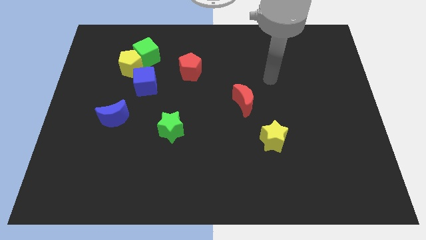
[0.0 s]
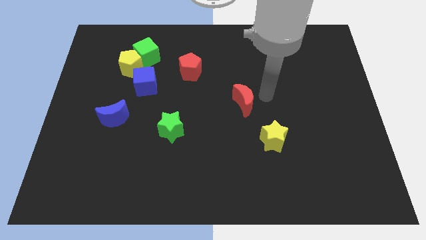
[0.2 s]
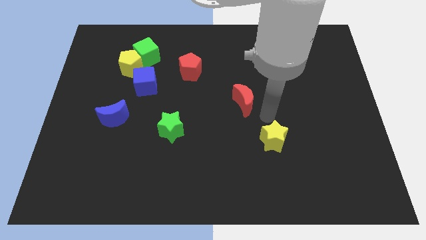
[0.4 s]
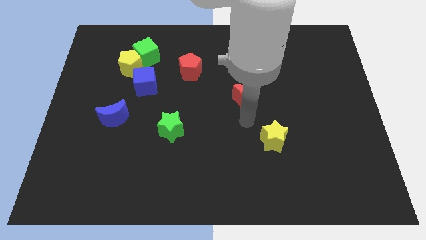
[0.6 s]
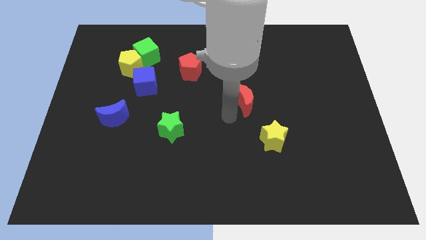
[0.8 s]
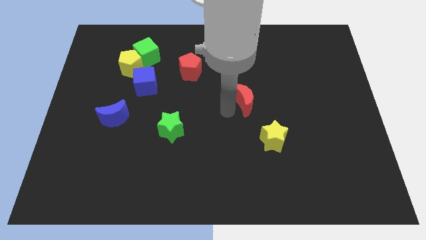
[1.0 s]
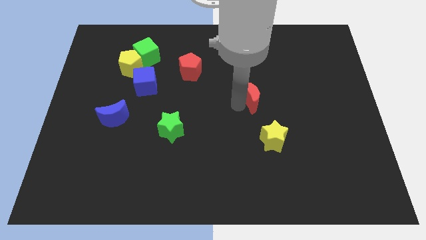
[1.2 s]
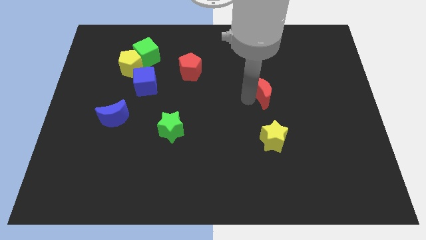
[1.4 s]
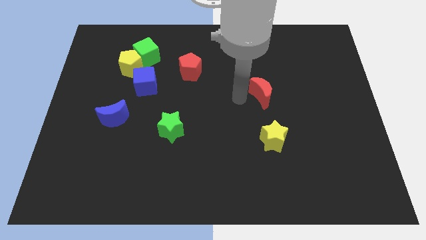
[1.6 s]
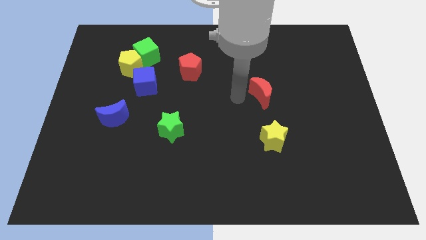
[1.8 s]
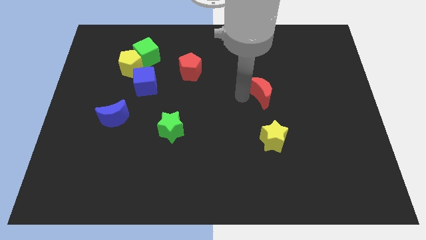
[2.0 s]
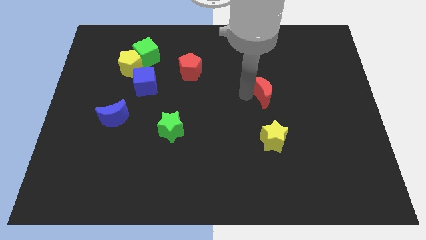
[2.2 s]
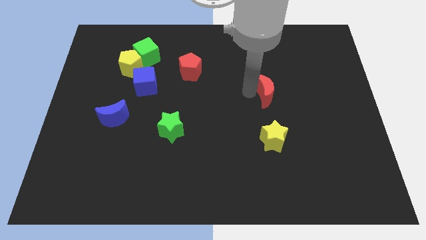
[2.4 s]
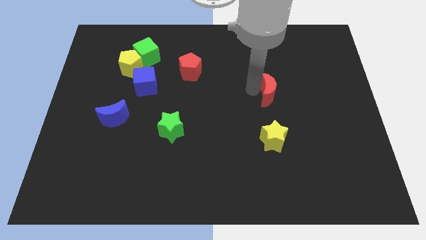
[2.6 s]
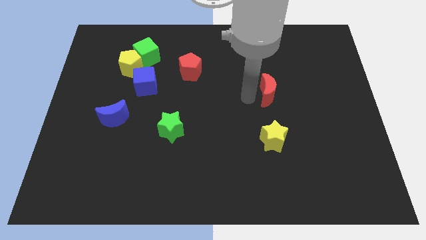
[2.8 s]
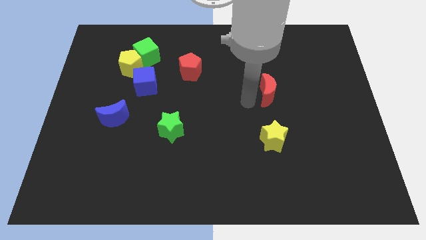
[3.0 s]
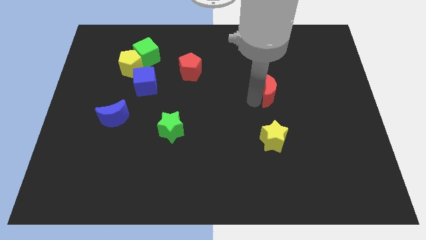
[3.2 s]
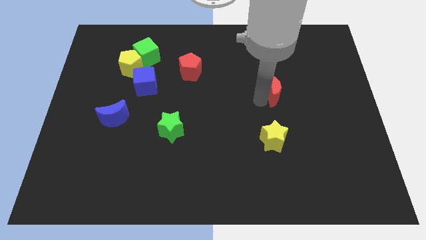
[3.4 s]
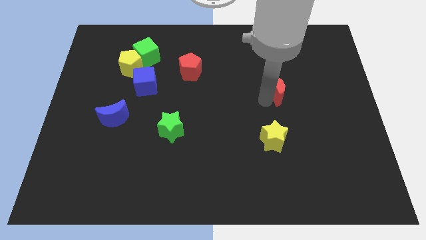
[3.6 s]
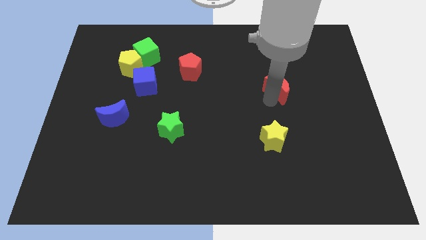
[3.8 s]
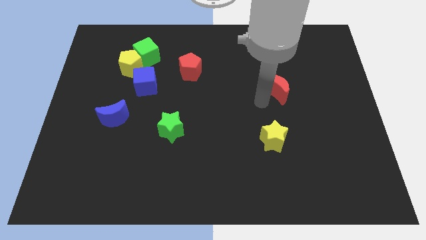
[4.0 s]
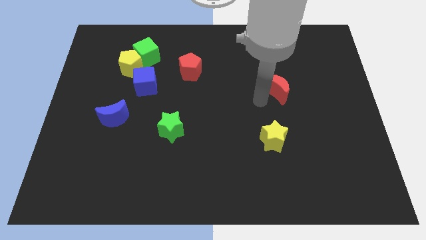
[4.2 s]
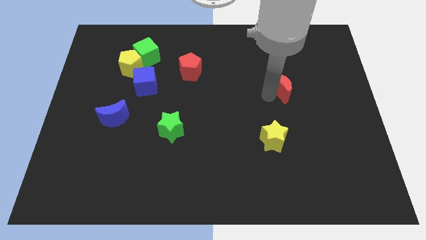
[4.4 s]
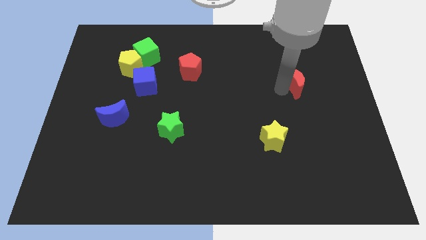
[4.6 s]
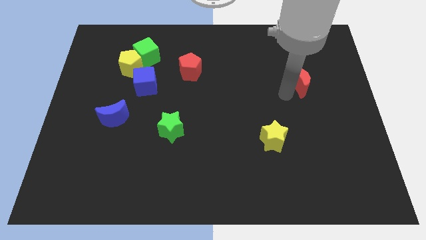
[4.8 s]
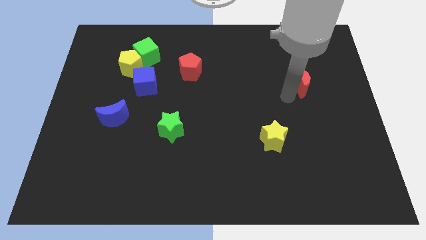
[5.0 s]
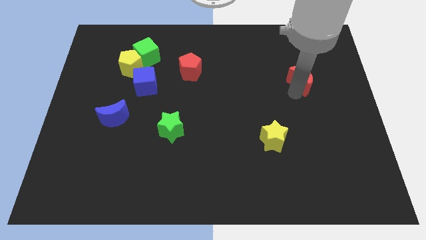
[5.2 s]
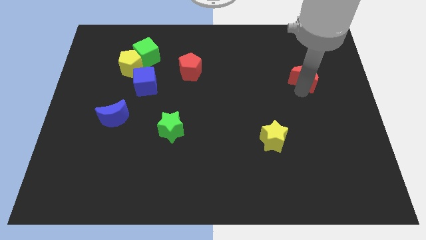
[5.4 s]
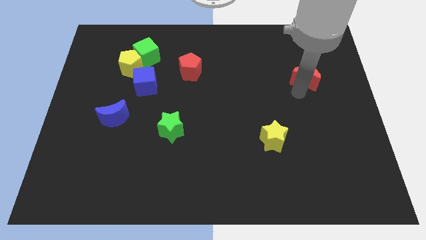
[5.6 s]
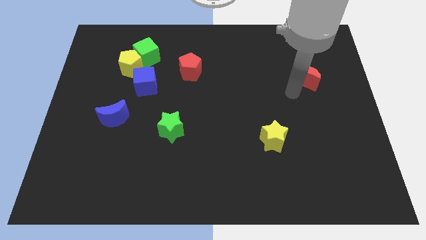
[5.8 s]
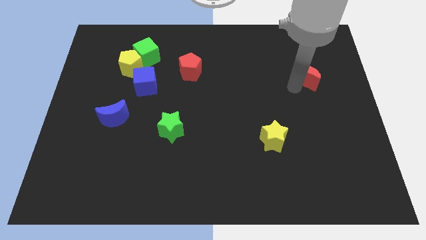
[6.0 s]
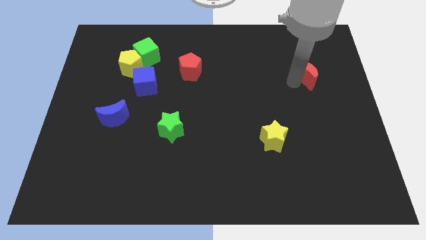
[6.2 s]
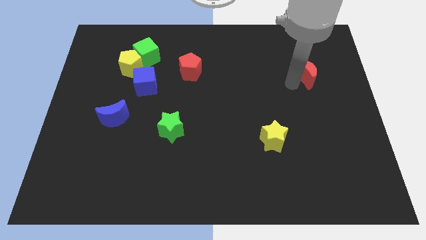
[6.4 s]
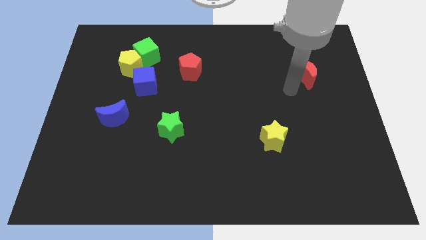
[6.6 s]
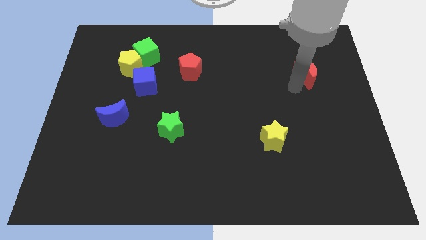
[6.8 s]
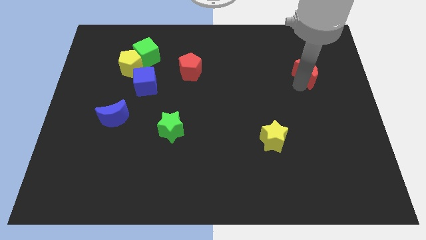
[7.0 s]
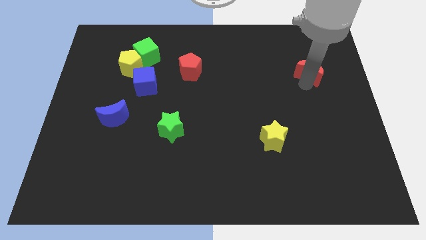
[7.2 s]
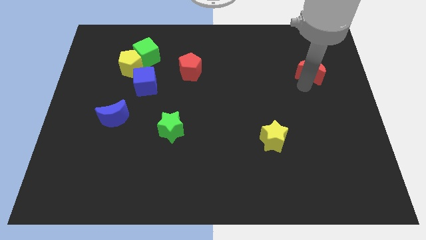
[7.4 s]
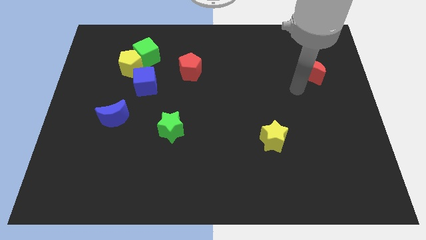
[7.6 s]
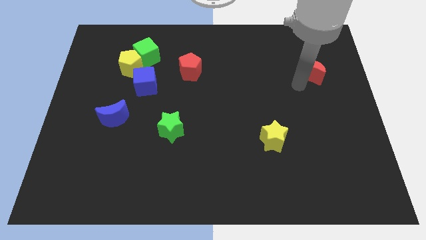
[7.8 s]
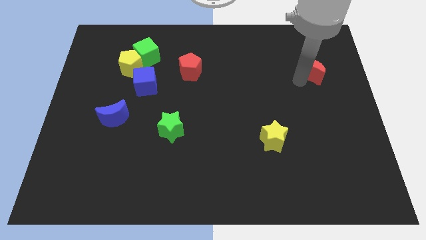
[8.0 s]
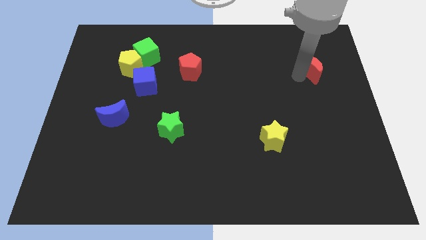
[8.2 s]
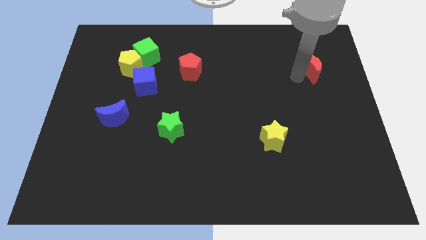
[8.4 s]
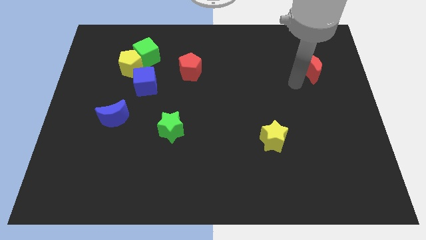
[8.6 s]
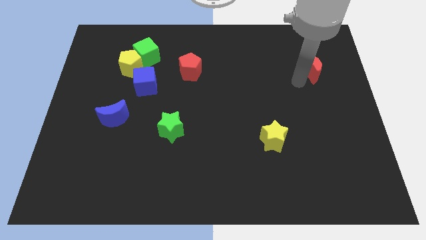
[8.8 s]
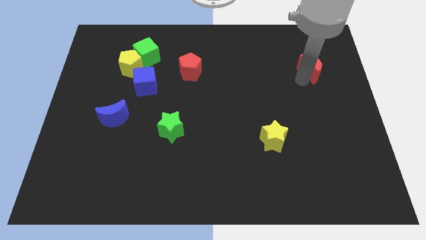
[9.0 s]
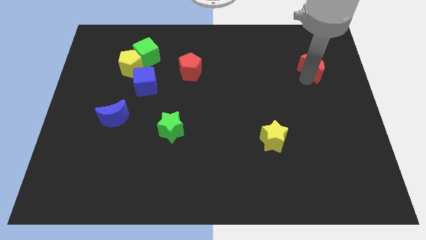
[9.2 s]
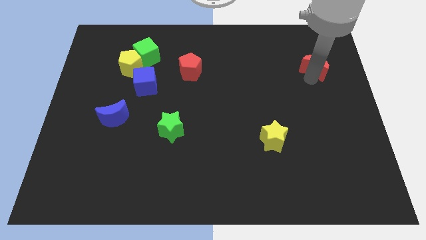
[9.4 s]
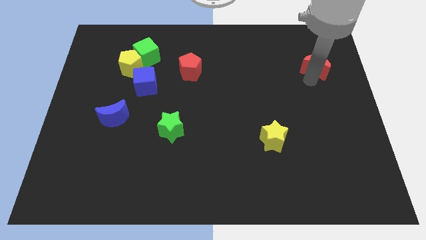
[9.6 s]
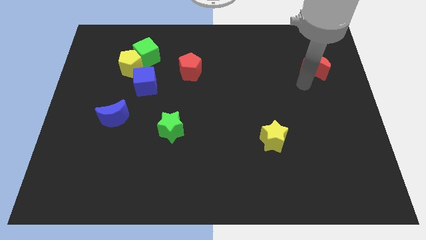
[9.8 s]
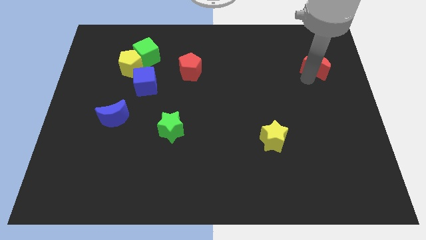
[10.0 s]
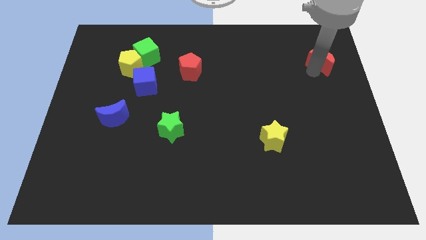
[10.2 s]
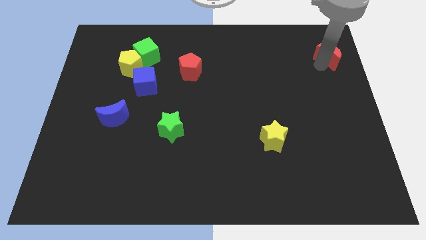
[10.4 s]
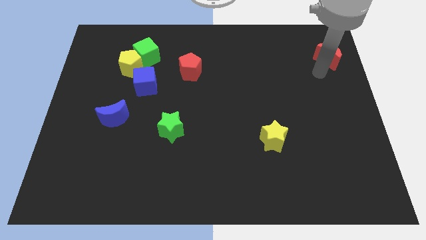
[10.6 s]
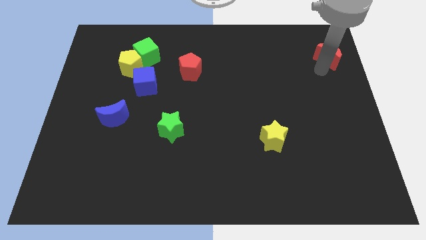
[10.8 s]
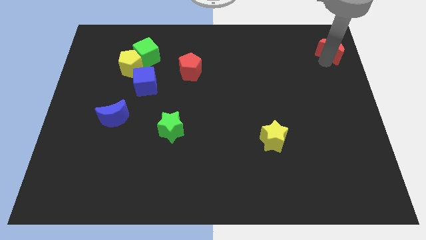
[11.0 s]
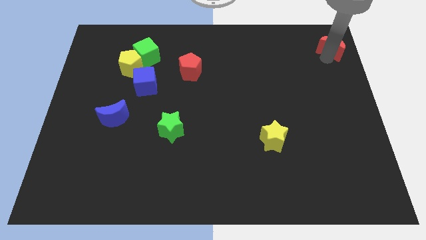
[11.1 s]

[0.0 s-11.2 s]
move the red moon to the upper right corner

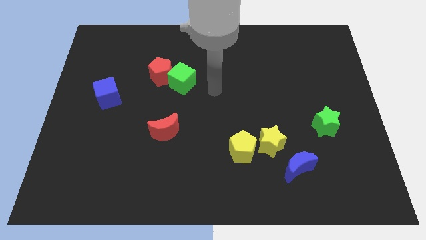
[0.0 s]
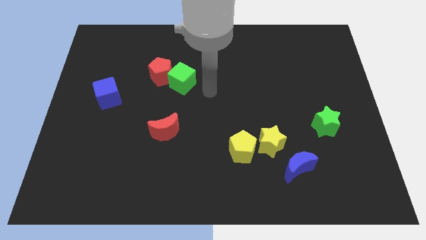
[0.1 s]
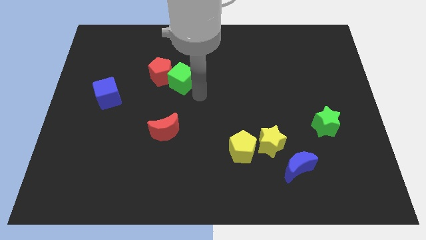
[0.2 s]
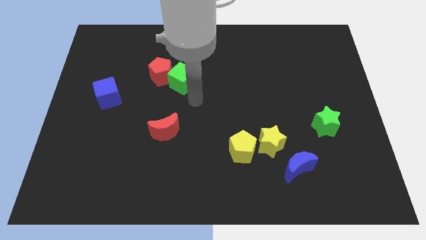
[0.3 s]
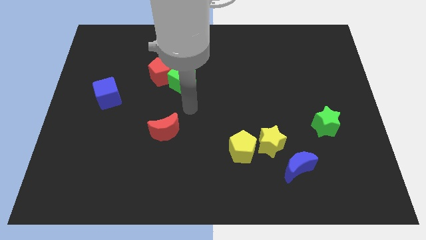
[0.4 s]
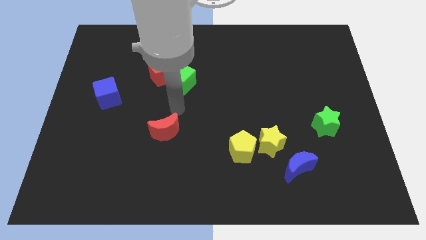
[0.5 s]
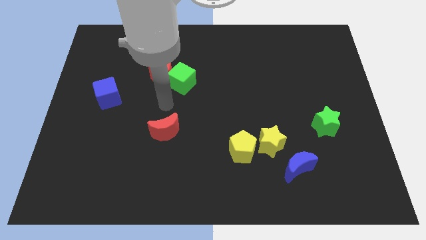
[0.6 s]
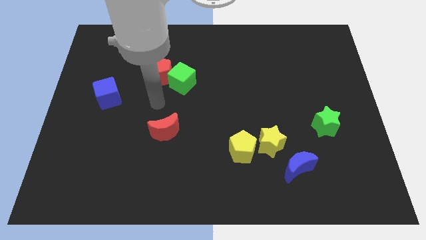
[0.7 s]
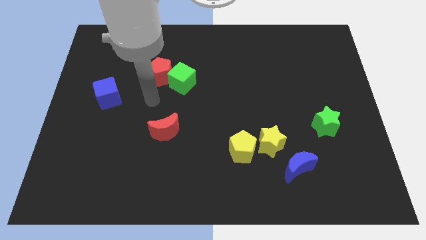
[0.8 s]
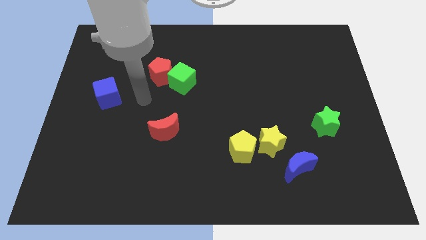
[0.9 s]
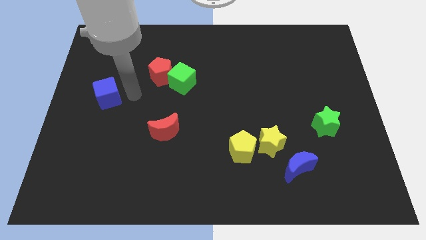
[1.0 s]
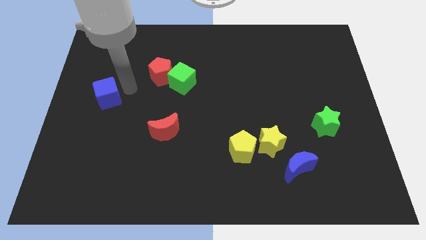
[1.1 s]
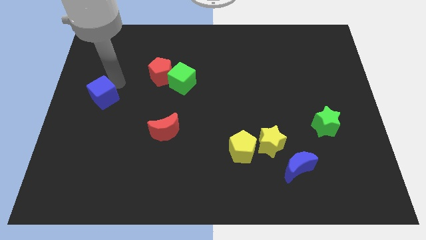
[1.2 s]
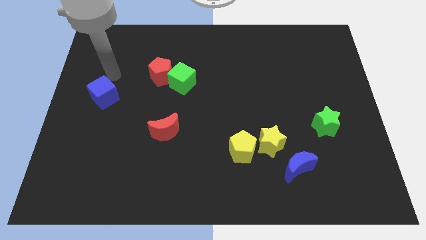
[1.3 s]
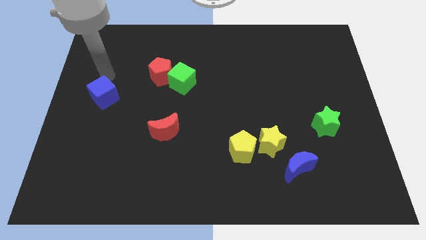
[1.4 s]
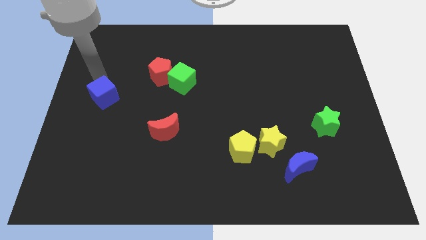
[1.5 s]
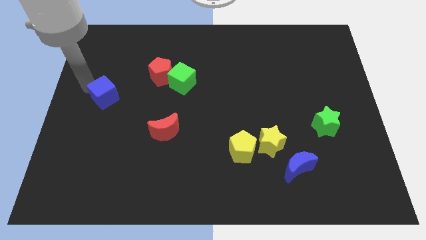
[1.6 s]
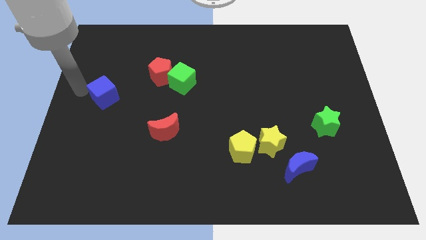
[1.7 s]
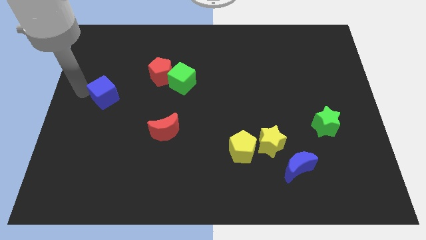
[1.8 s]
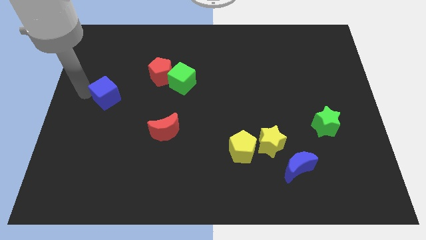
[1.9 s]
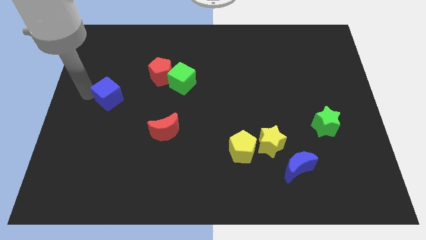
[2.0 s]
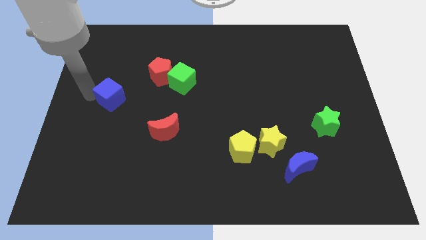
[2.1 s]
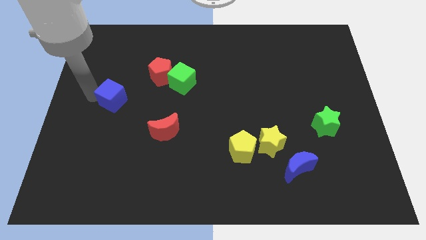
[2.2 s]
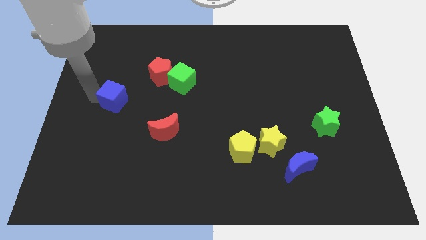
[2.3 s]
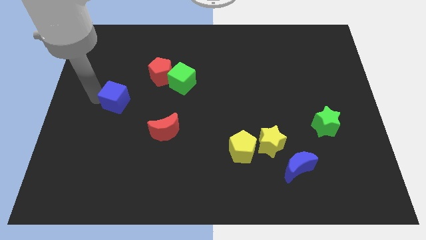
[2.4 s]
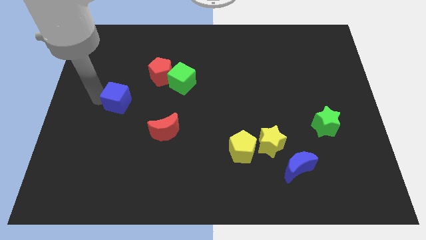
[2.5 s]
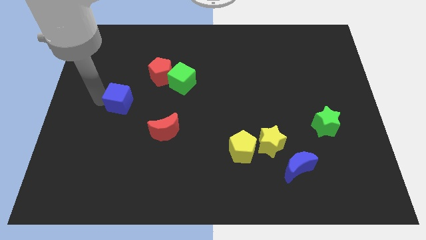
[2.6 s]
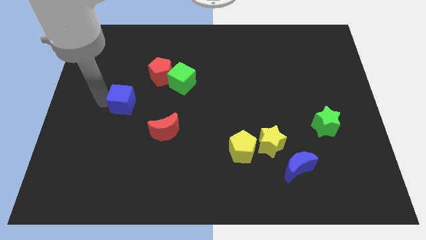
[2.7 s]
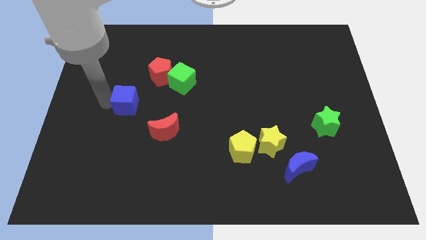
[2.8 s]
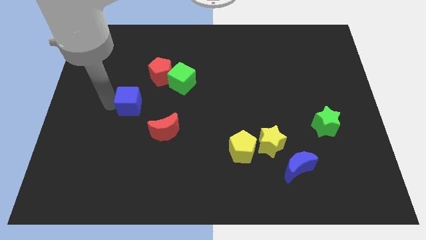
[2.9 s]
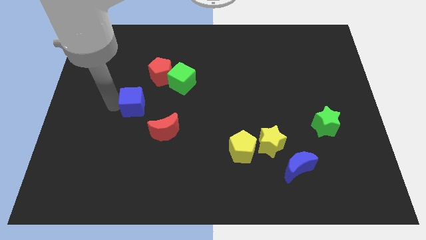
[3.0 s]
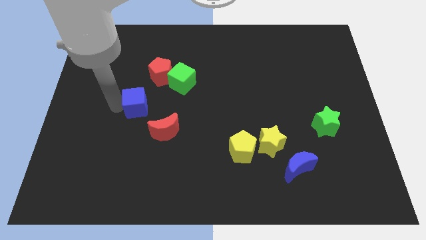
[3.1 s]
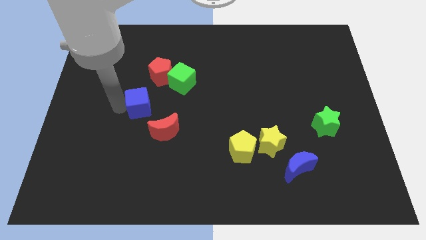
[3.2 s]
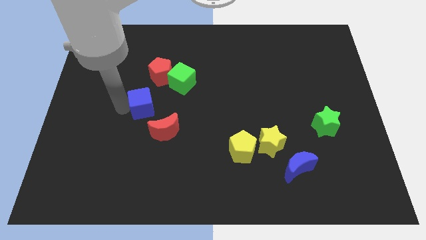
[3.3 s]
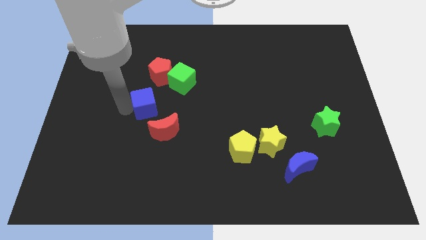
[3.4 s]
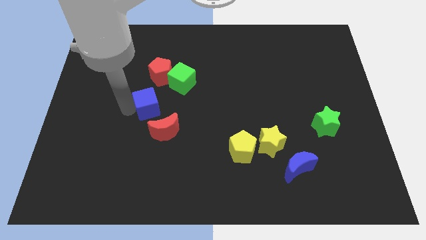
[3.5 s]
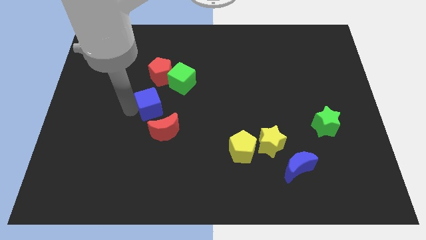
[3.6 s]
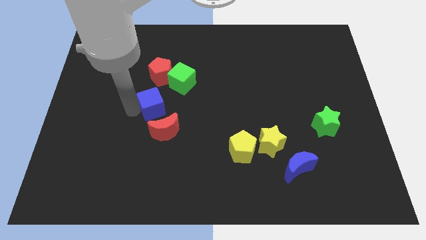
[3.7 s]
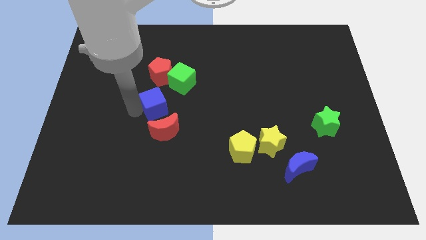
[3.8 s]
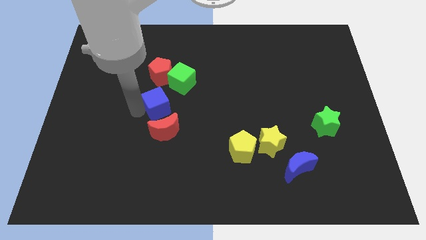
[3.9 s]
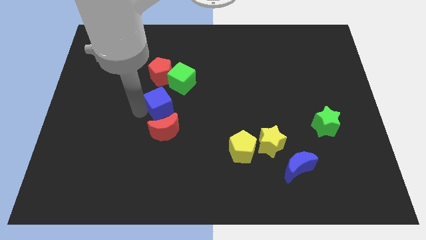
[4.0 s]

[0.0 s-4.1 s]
slide the blue cube to the middle of the board
